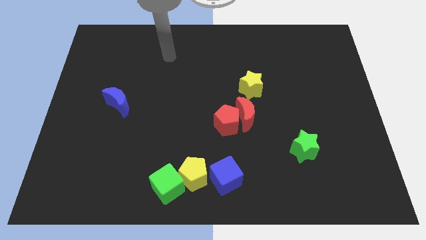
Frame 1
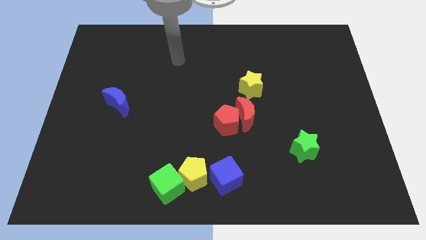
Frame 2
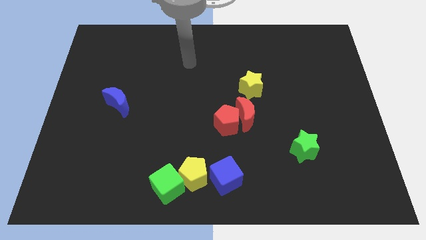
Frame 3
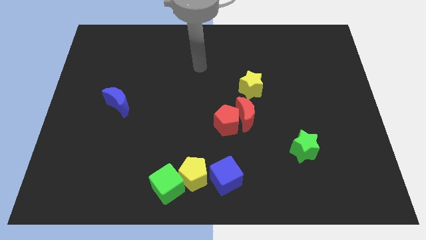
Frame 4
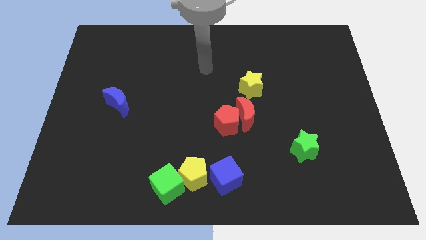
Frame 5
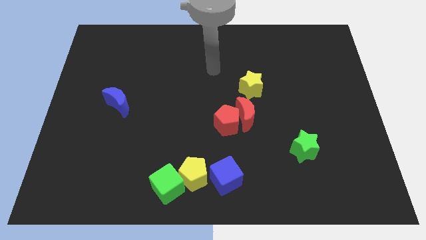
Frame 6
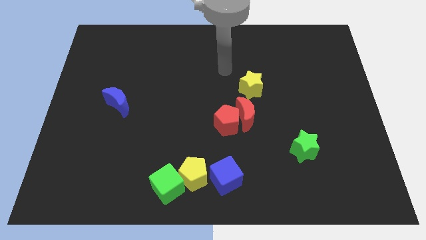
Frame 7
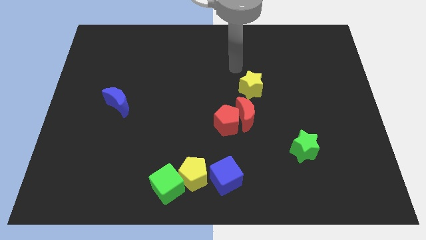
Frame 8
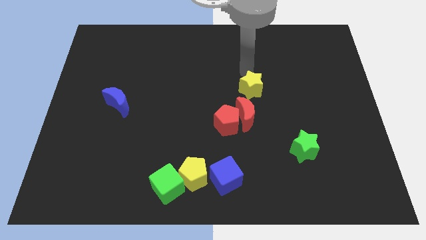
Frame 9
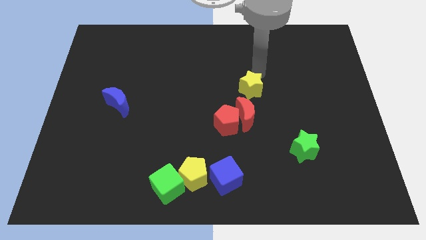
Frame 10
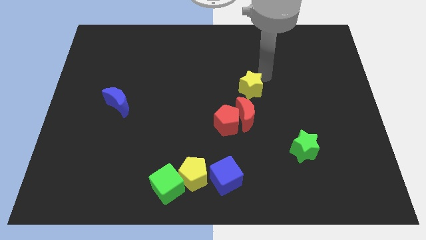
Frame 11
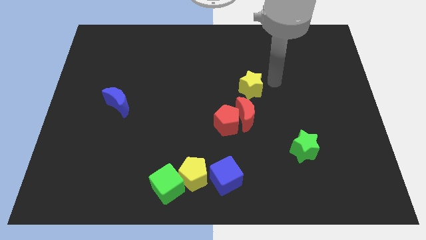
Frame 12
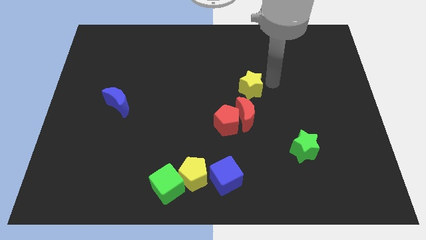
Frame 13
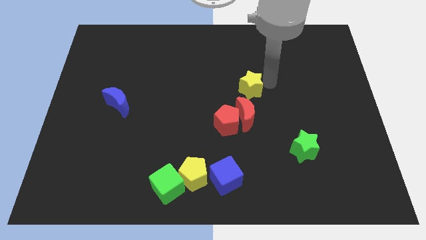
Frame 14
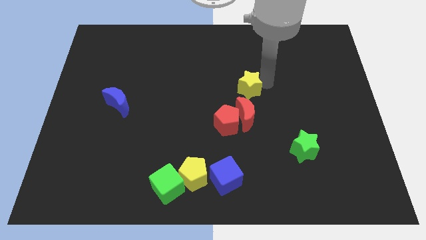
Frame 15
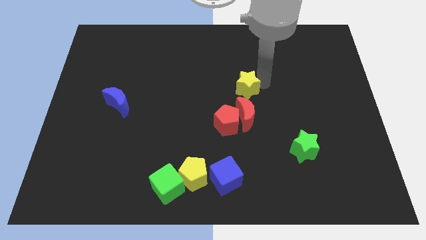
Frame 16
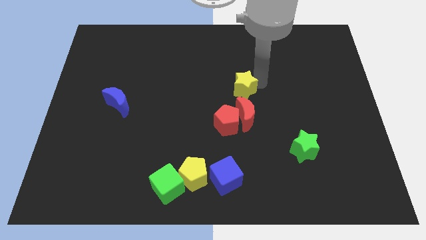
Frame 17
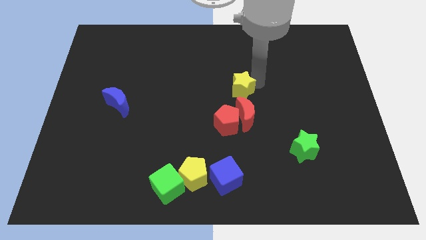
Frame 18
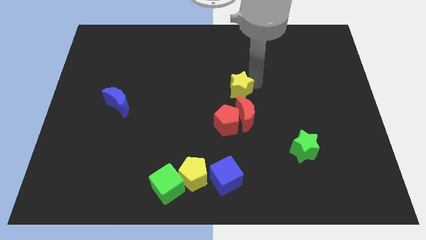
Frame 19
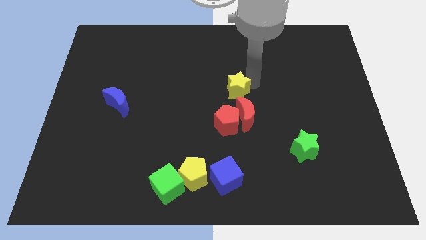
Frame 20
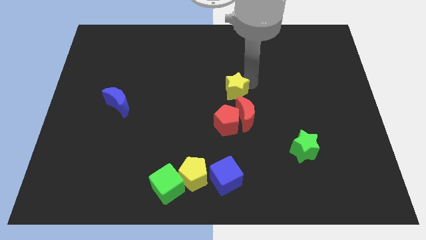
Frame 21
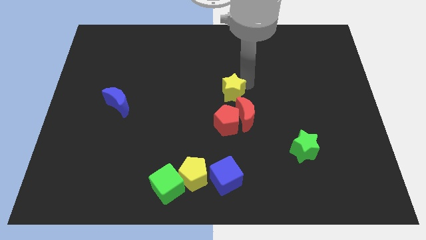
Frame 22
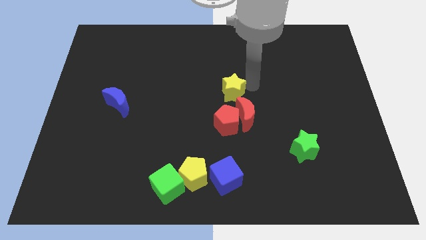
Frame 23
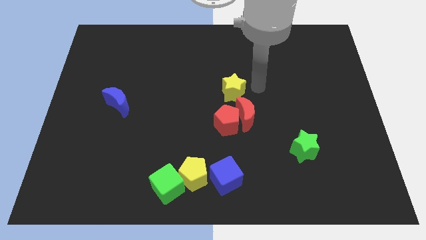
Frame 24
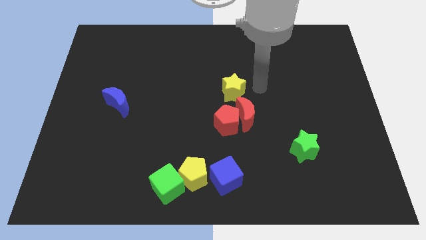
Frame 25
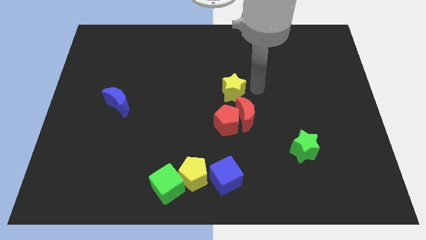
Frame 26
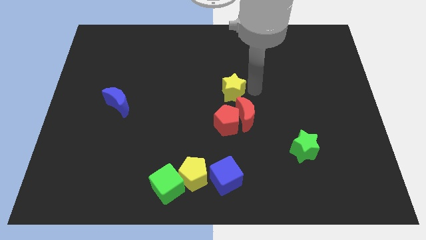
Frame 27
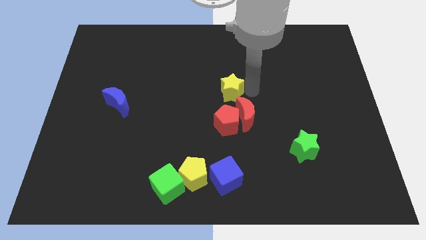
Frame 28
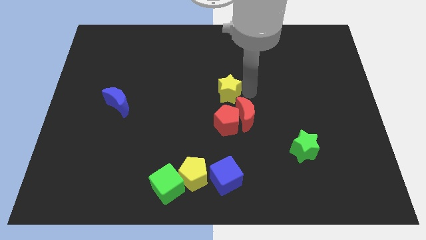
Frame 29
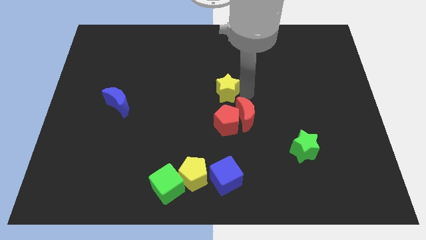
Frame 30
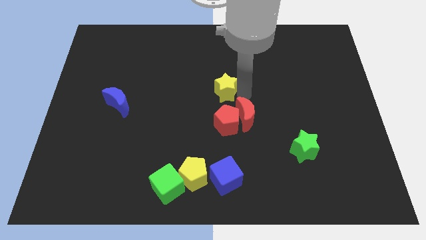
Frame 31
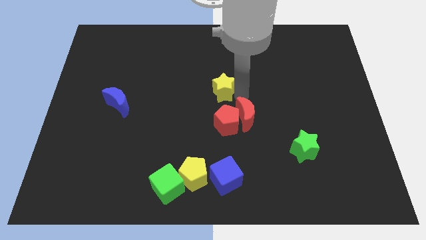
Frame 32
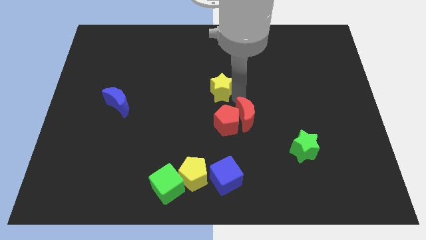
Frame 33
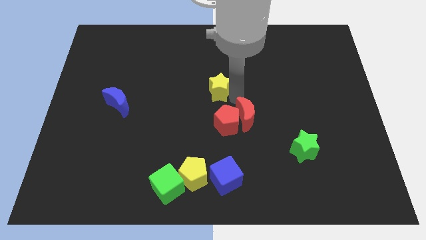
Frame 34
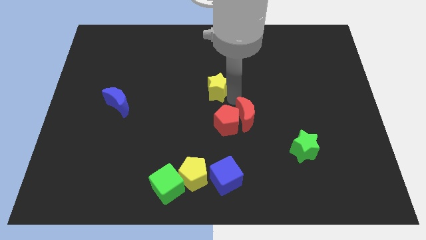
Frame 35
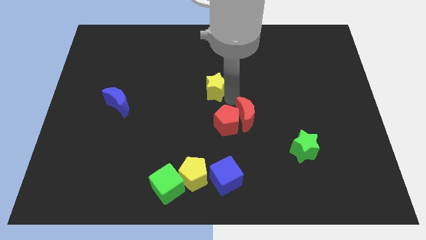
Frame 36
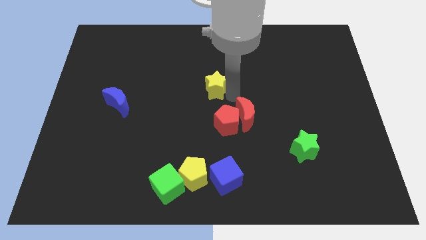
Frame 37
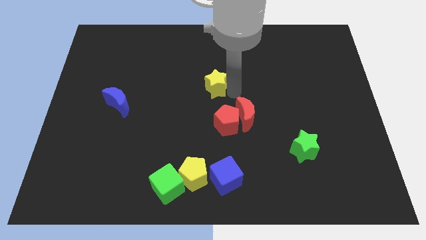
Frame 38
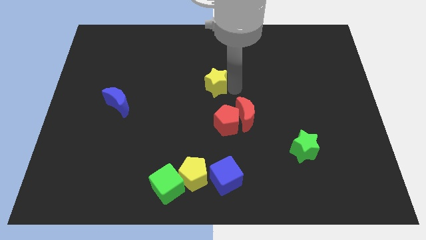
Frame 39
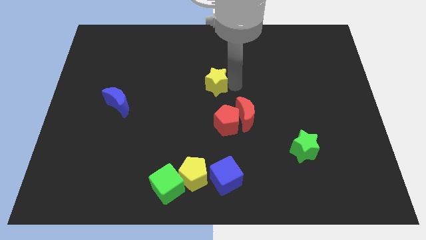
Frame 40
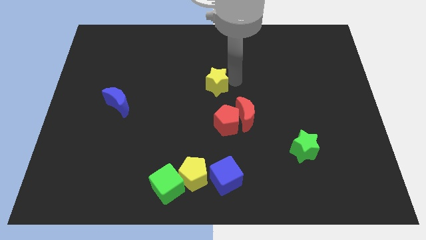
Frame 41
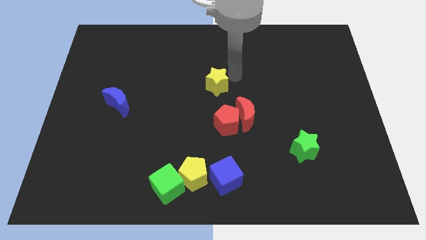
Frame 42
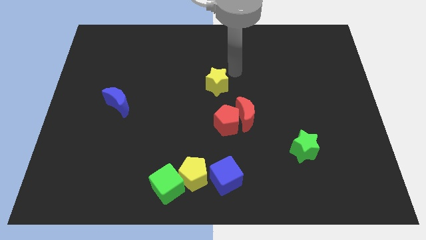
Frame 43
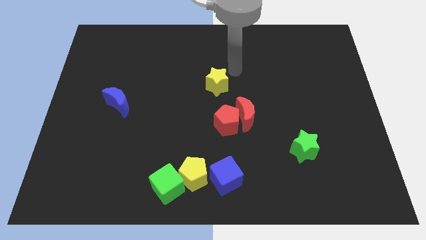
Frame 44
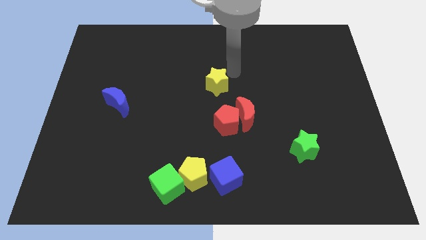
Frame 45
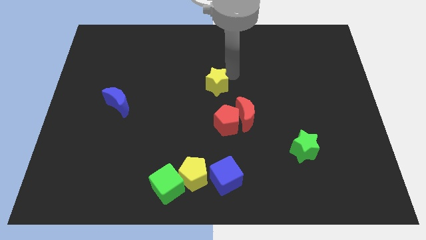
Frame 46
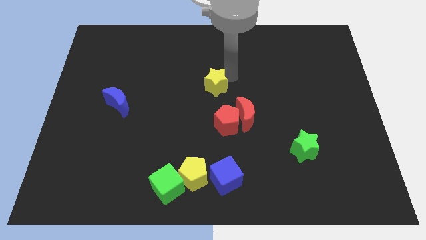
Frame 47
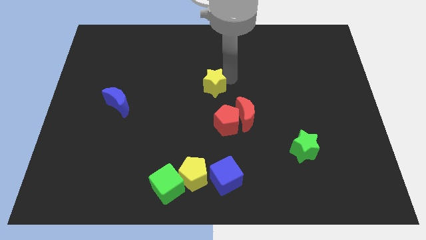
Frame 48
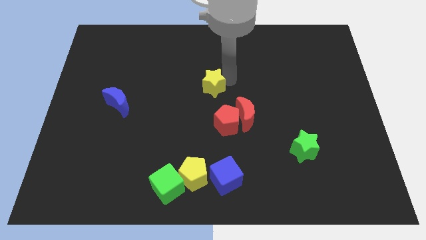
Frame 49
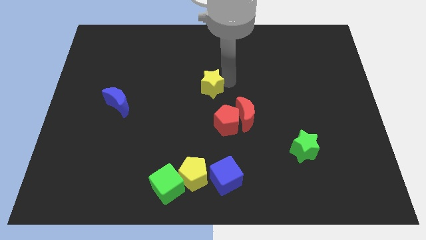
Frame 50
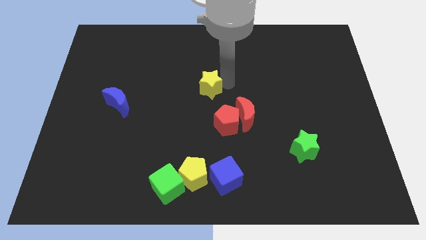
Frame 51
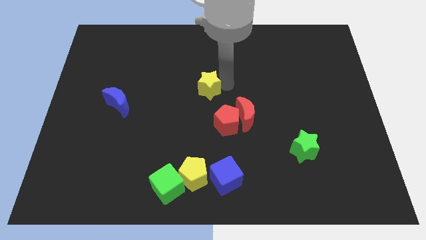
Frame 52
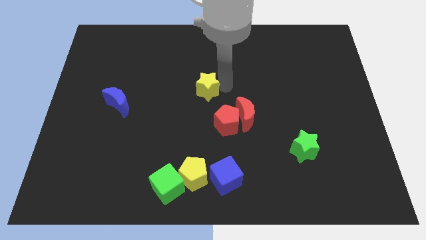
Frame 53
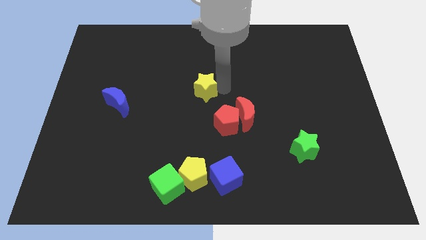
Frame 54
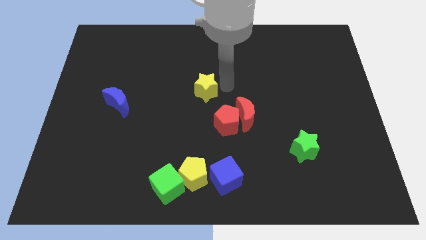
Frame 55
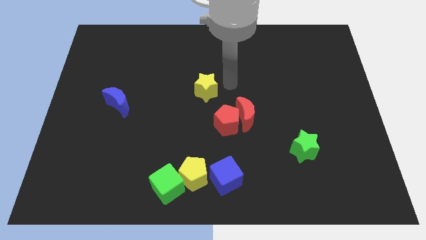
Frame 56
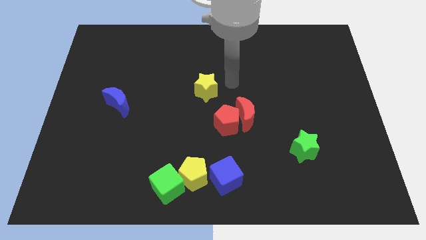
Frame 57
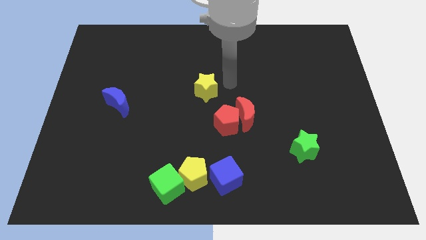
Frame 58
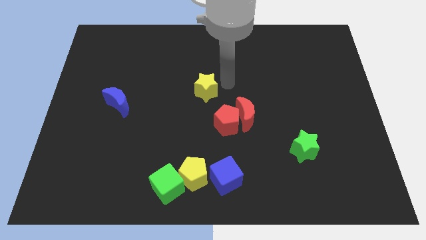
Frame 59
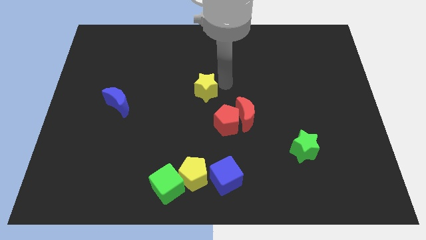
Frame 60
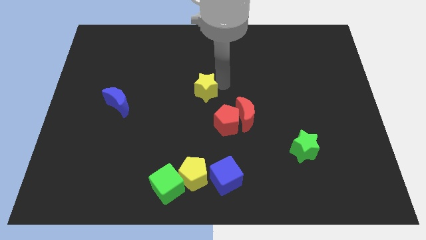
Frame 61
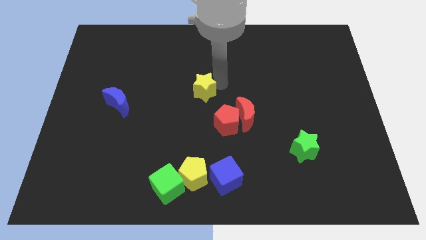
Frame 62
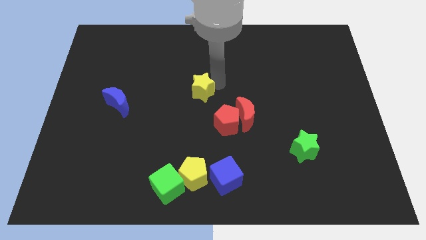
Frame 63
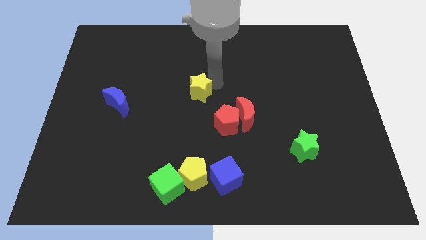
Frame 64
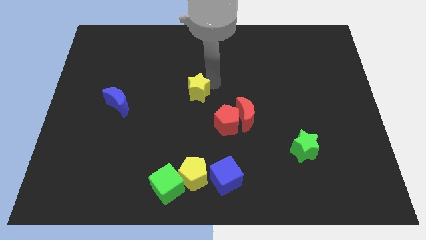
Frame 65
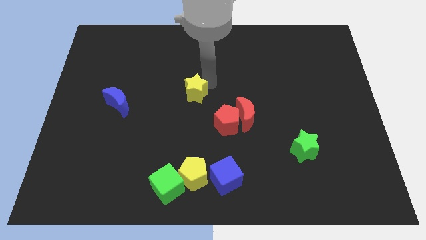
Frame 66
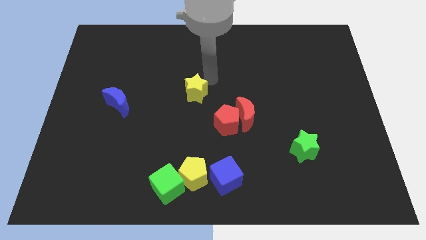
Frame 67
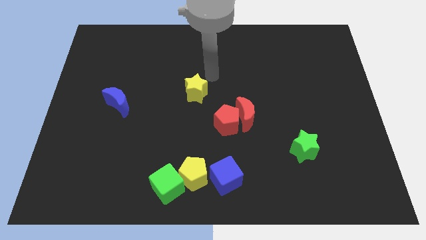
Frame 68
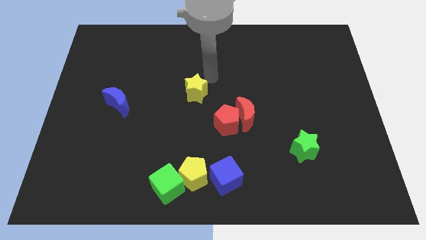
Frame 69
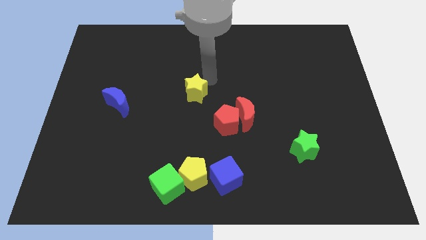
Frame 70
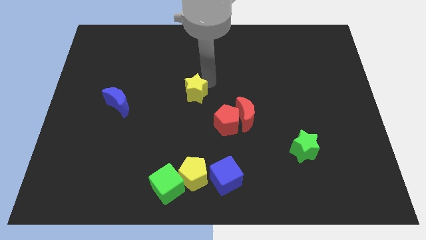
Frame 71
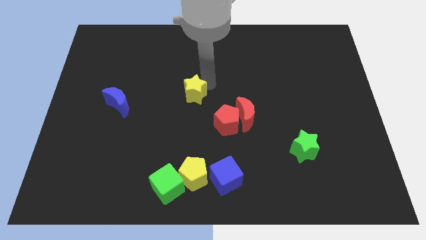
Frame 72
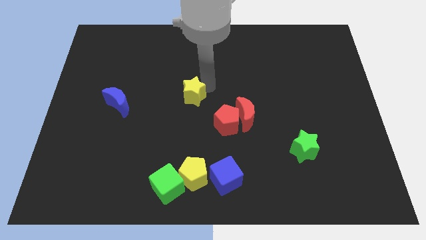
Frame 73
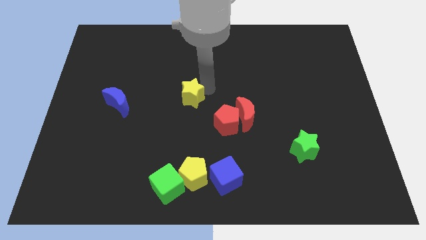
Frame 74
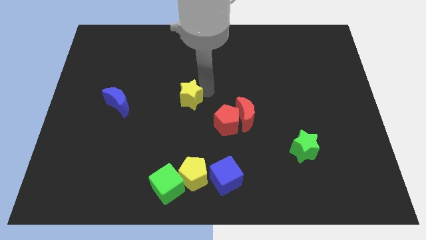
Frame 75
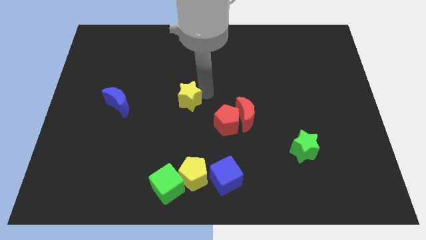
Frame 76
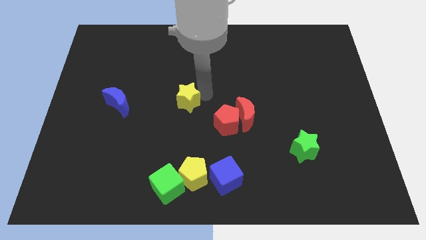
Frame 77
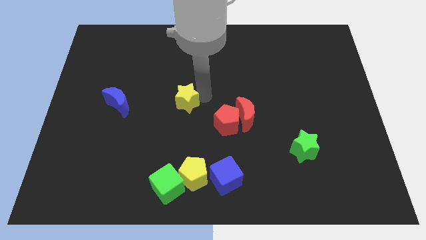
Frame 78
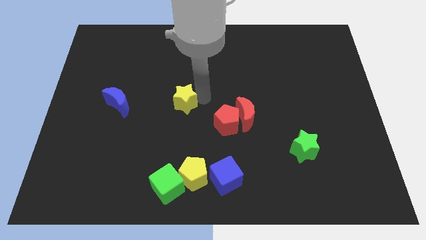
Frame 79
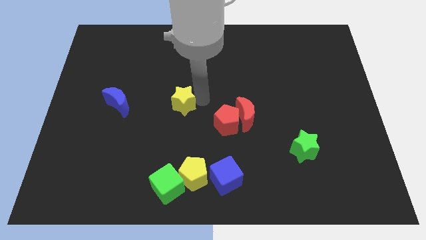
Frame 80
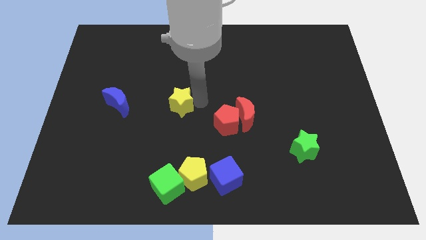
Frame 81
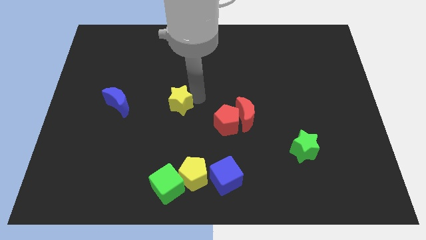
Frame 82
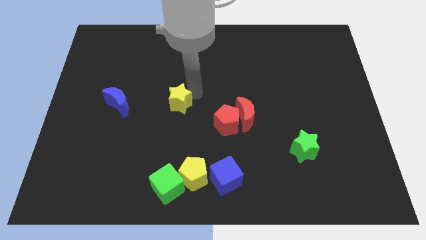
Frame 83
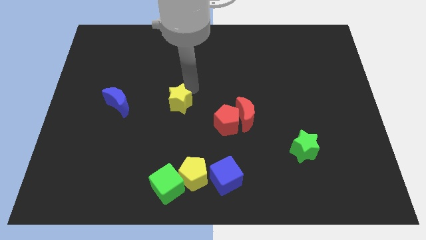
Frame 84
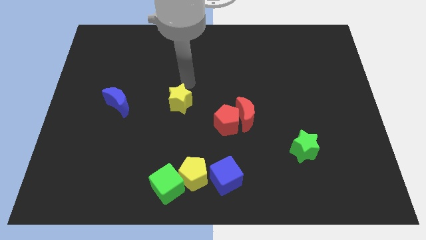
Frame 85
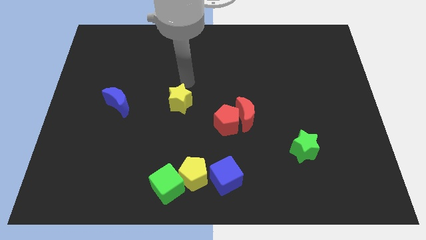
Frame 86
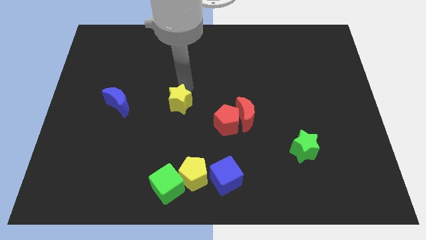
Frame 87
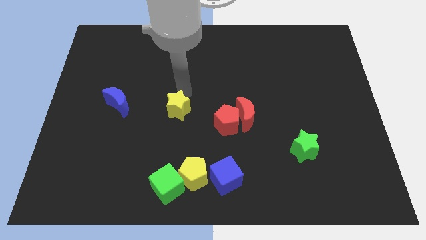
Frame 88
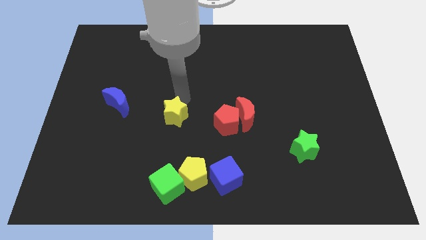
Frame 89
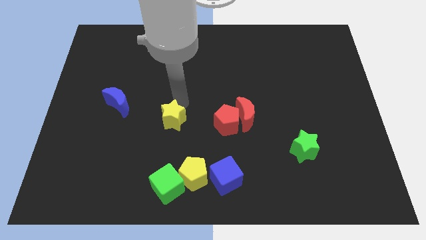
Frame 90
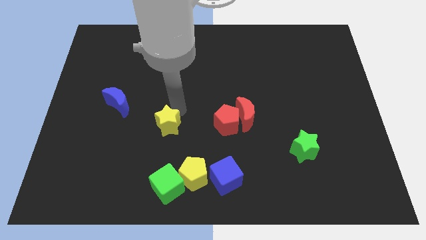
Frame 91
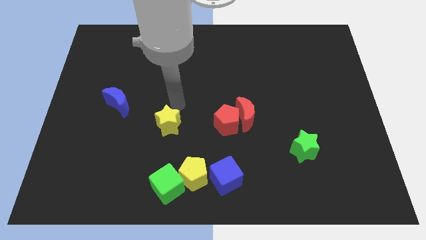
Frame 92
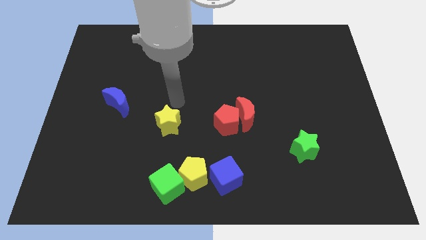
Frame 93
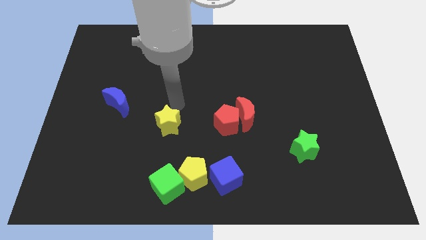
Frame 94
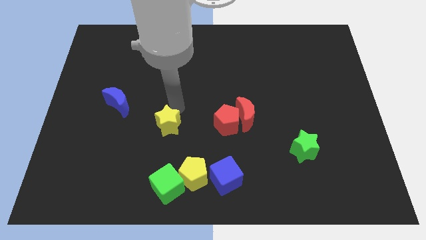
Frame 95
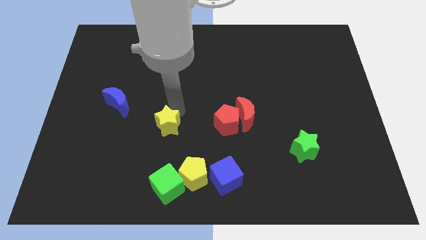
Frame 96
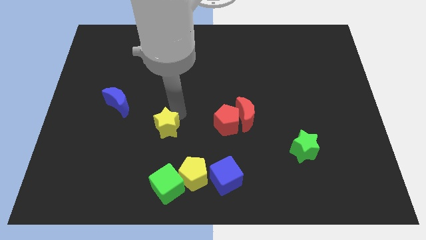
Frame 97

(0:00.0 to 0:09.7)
slide the yellow star downwards and then to the left
